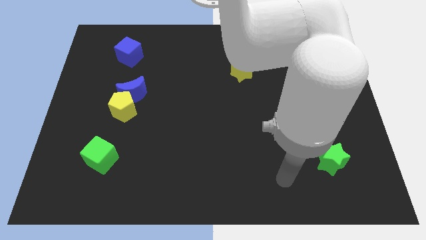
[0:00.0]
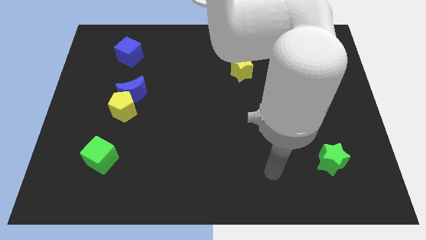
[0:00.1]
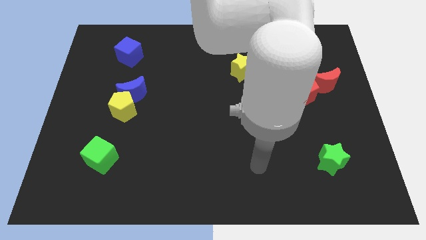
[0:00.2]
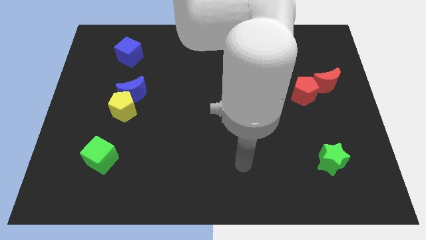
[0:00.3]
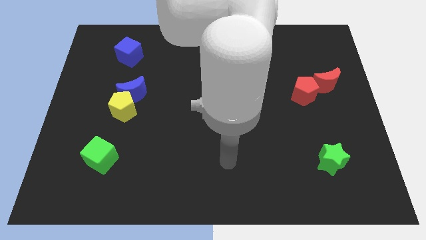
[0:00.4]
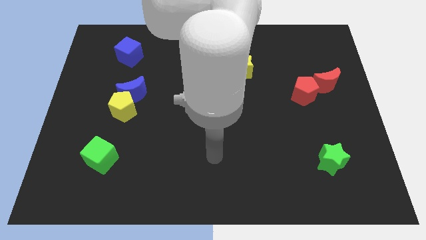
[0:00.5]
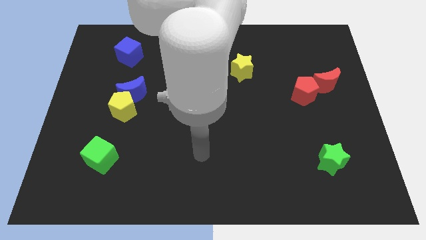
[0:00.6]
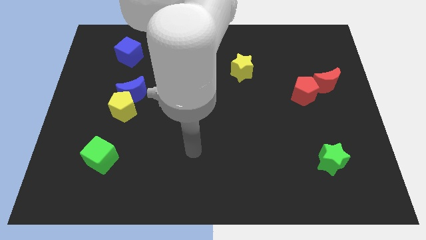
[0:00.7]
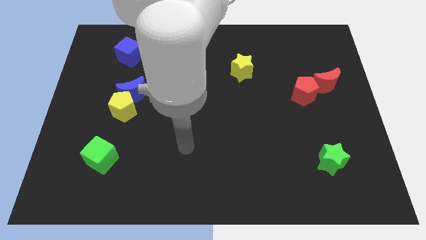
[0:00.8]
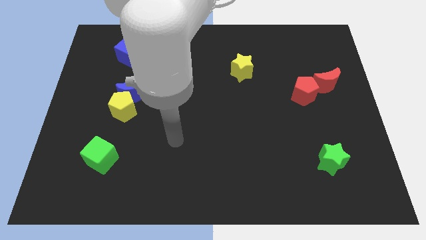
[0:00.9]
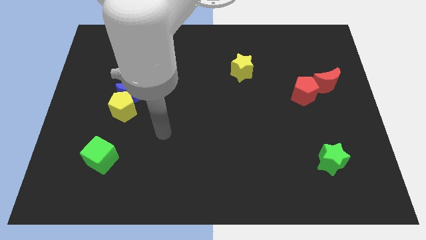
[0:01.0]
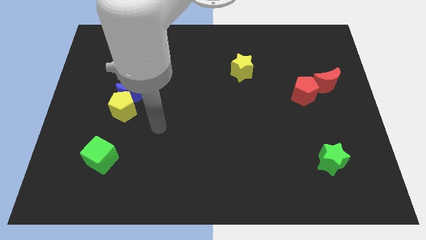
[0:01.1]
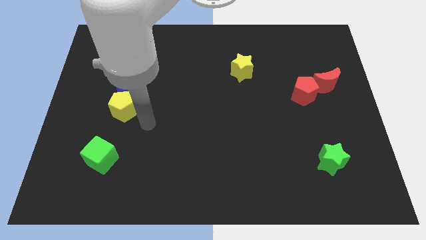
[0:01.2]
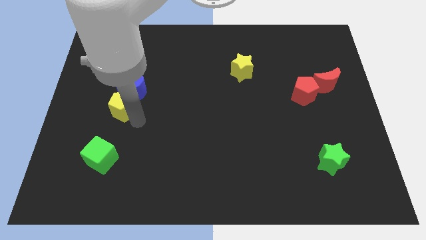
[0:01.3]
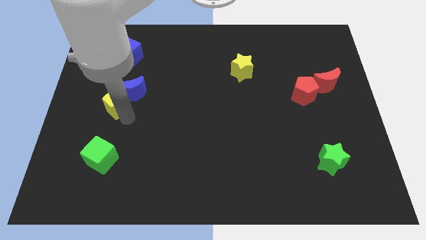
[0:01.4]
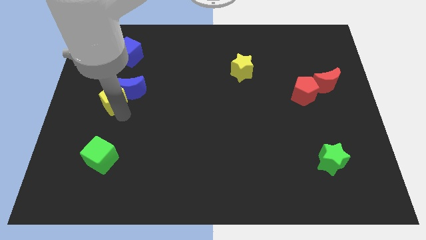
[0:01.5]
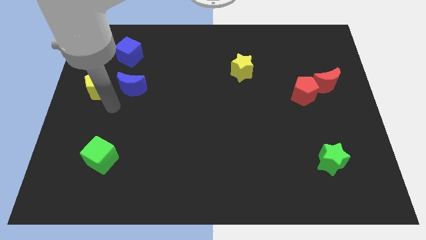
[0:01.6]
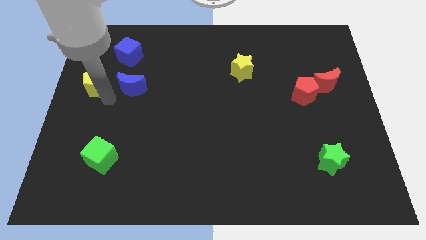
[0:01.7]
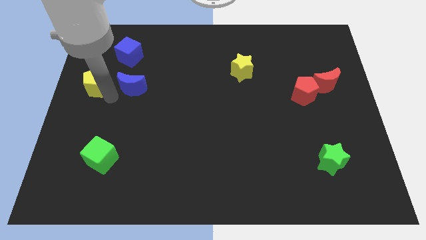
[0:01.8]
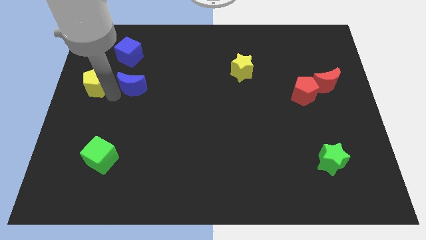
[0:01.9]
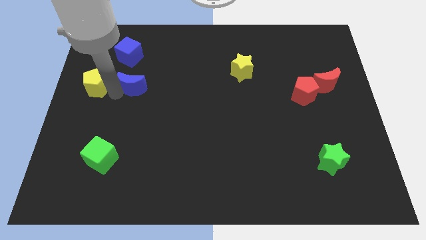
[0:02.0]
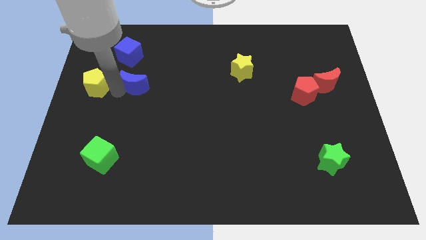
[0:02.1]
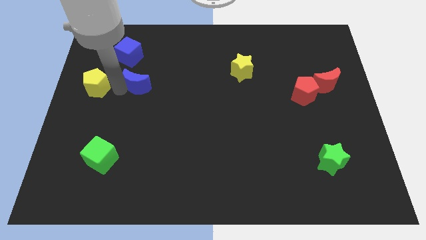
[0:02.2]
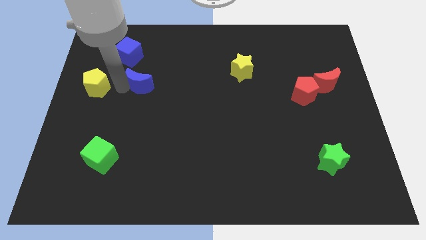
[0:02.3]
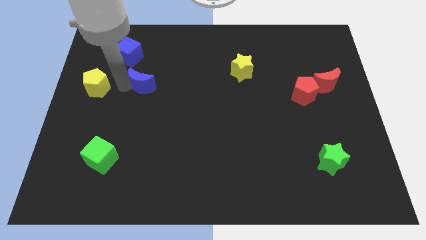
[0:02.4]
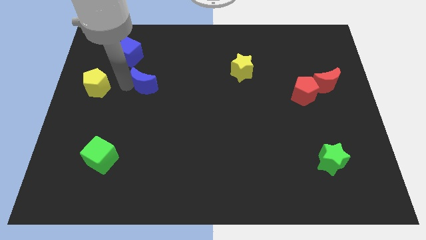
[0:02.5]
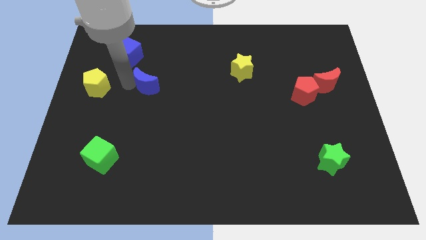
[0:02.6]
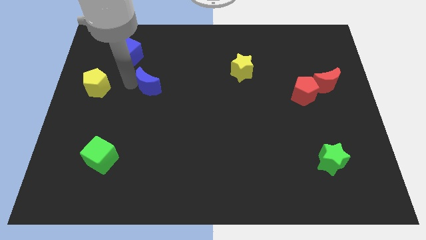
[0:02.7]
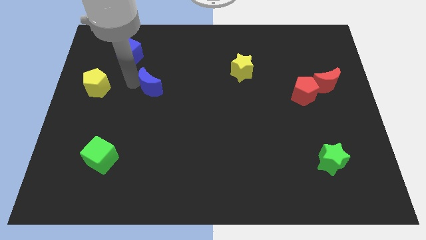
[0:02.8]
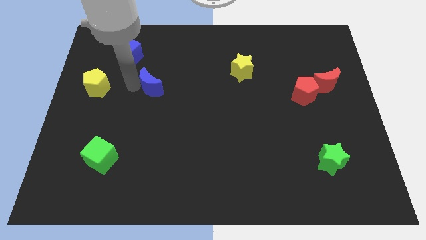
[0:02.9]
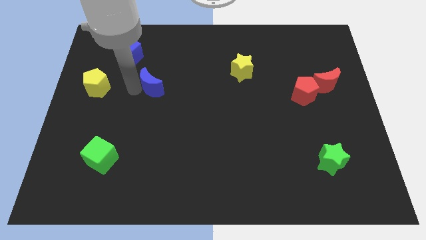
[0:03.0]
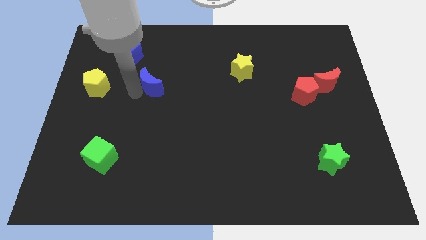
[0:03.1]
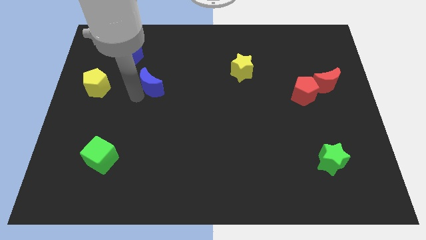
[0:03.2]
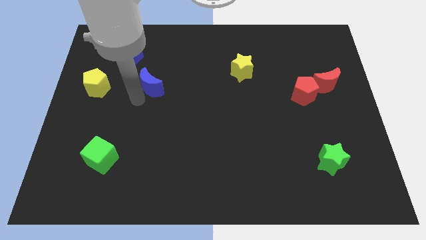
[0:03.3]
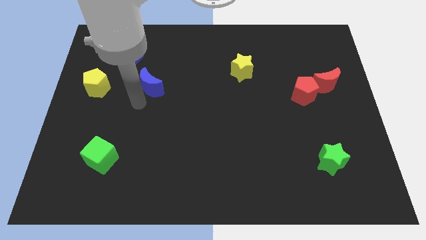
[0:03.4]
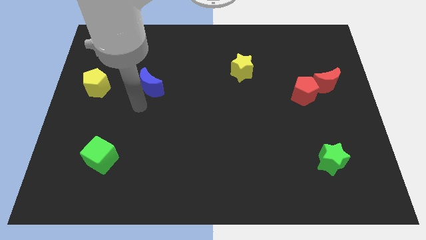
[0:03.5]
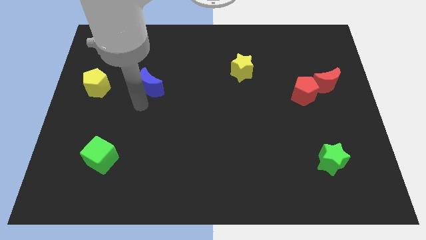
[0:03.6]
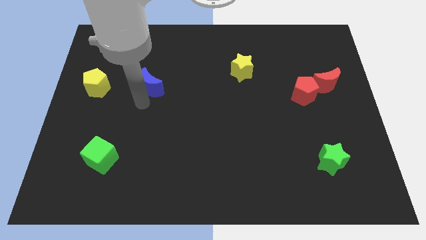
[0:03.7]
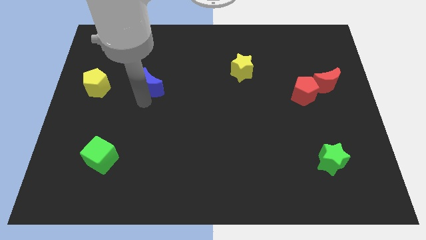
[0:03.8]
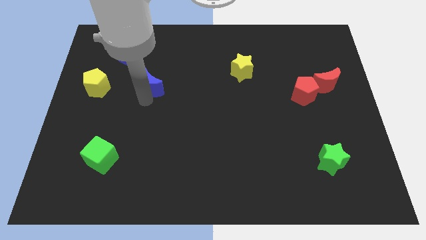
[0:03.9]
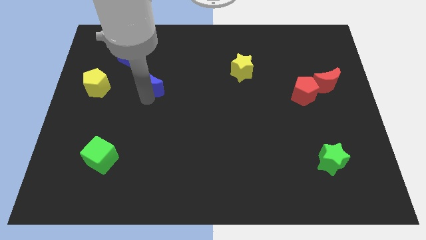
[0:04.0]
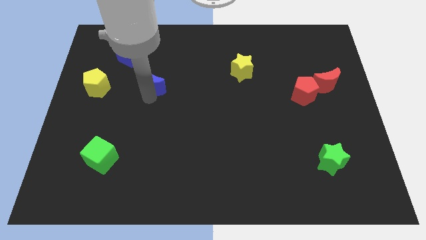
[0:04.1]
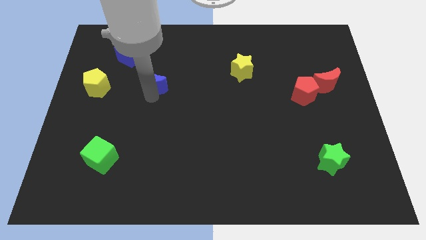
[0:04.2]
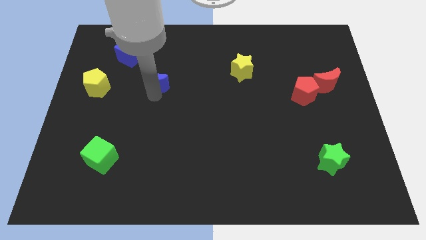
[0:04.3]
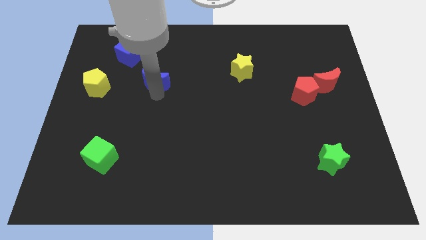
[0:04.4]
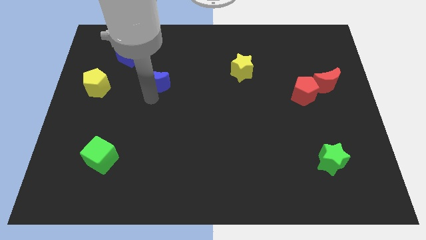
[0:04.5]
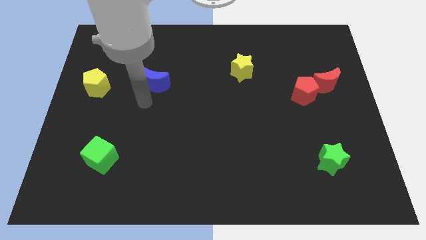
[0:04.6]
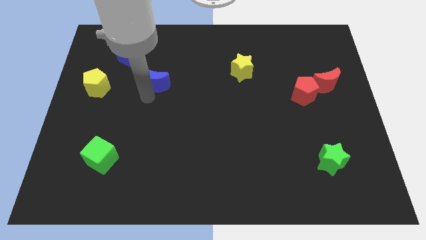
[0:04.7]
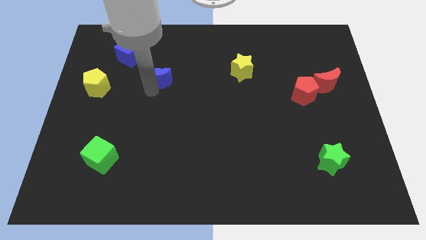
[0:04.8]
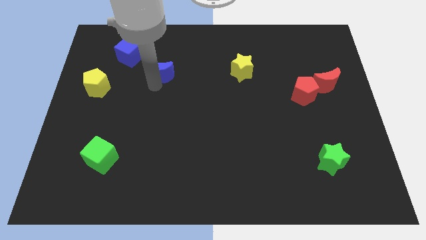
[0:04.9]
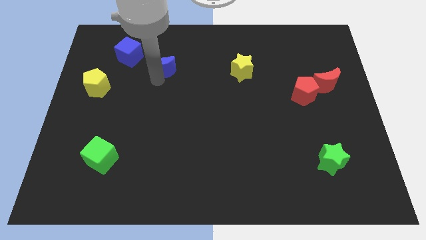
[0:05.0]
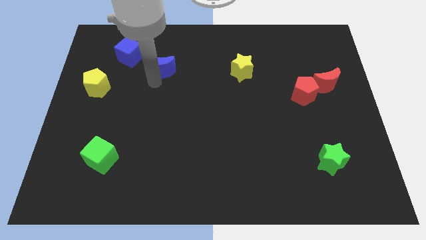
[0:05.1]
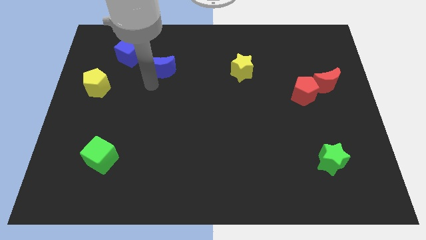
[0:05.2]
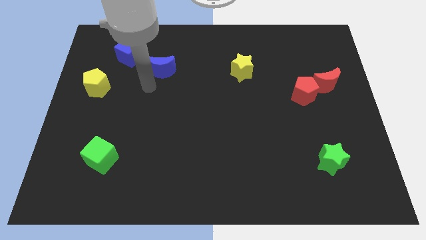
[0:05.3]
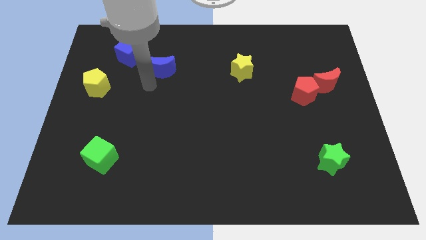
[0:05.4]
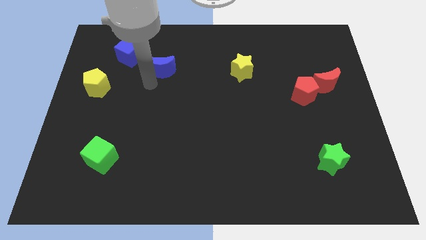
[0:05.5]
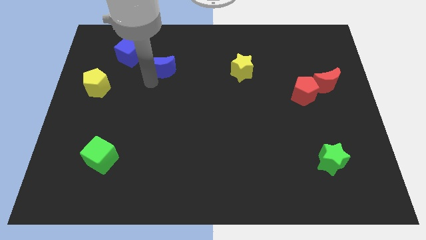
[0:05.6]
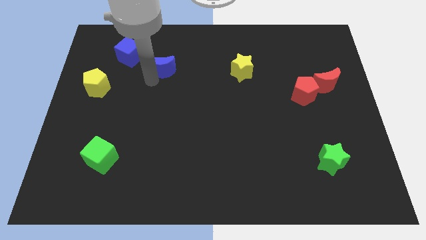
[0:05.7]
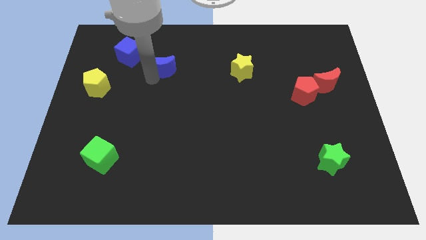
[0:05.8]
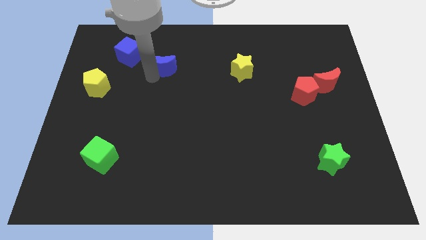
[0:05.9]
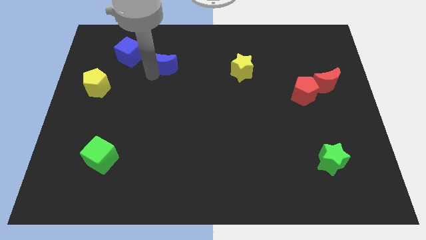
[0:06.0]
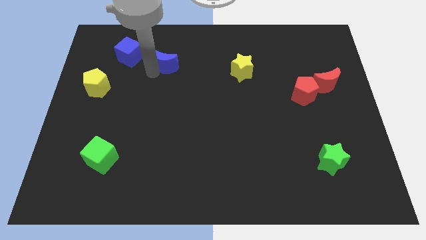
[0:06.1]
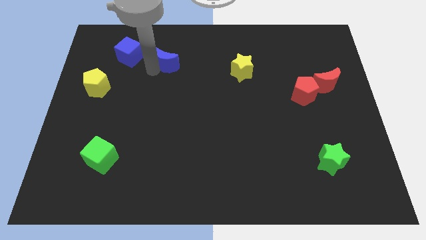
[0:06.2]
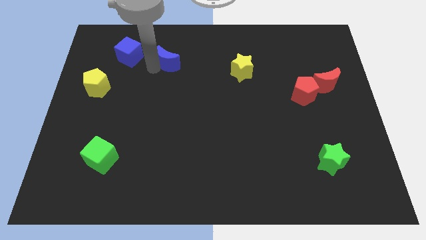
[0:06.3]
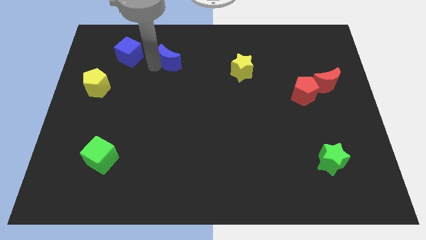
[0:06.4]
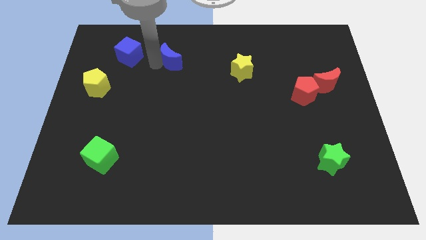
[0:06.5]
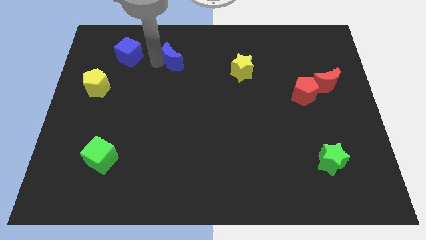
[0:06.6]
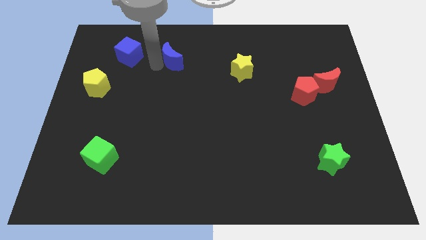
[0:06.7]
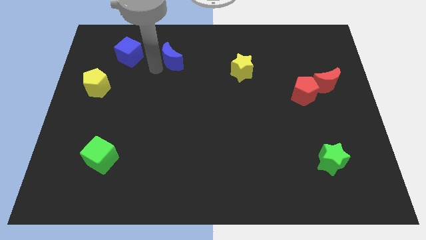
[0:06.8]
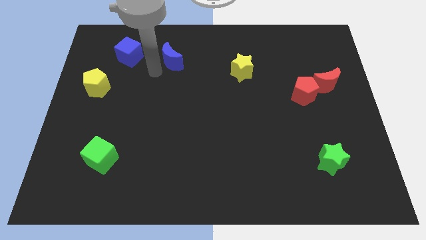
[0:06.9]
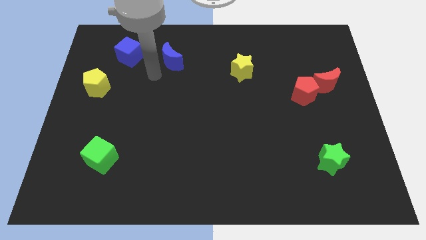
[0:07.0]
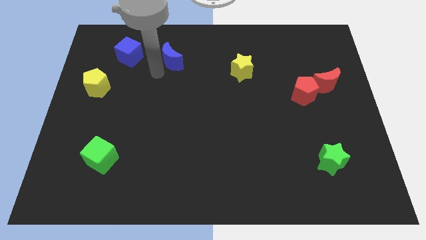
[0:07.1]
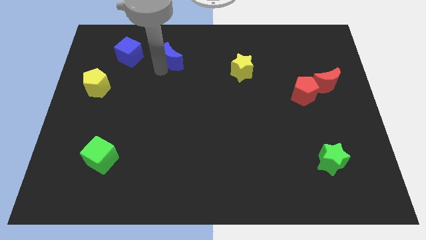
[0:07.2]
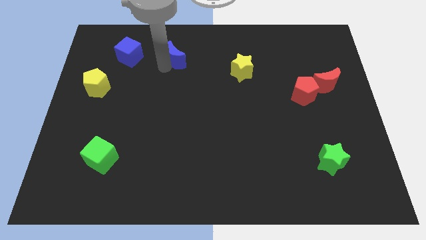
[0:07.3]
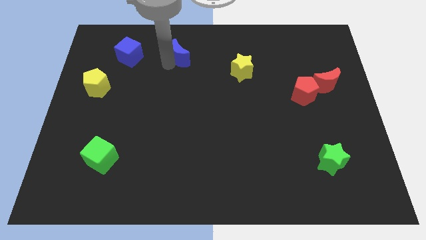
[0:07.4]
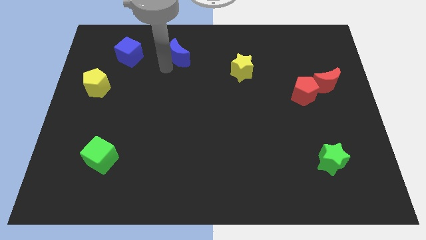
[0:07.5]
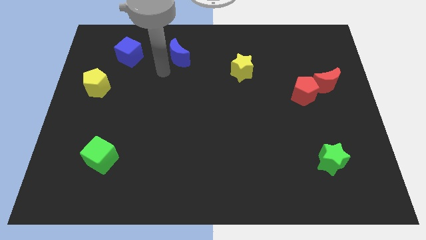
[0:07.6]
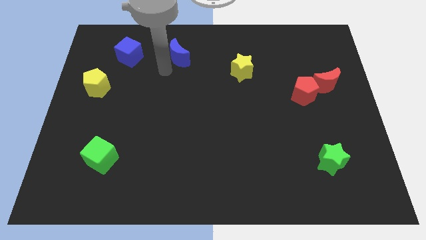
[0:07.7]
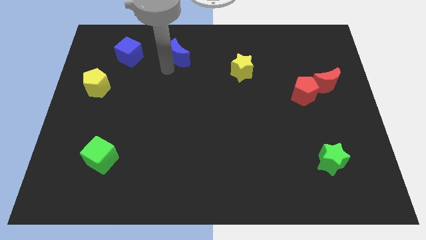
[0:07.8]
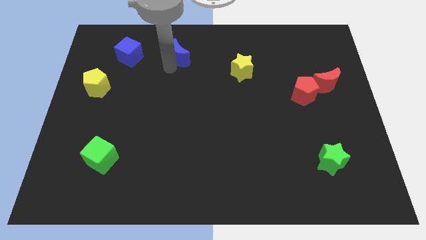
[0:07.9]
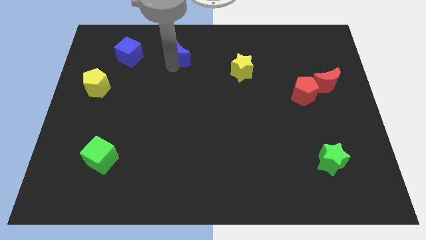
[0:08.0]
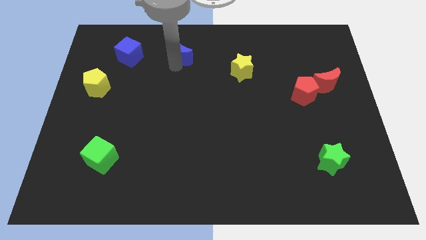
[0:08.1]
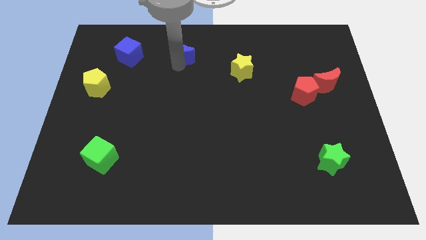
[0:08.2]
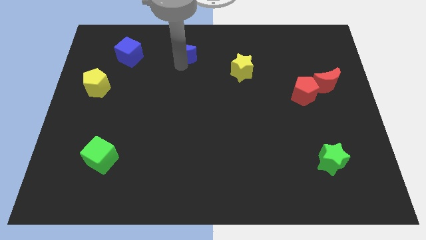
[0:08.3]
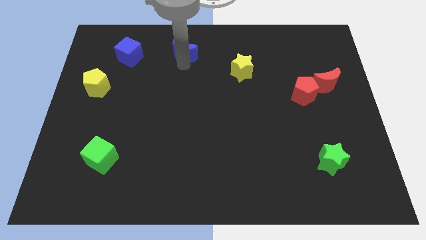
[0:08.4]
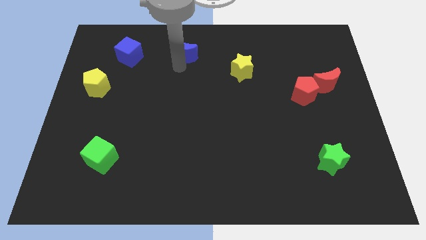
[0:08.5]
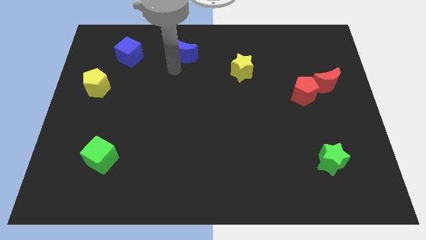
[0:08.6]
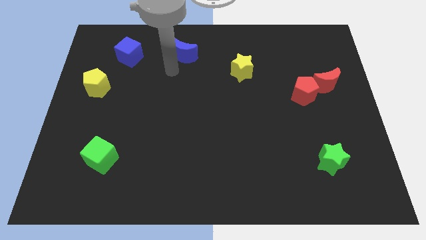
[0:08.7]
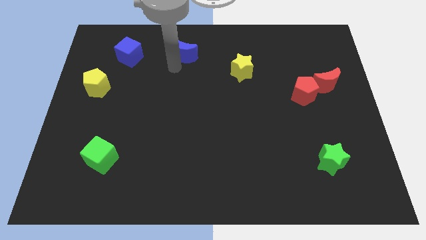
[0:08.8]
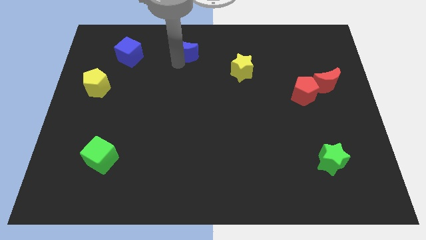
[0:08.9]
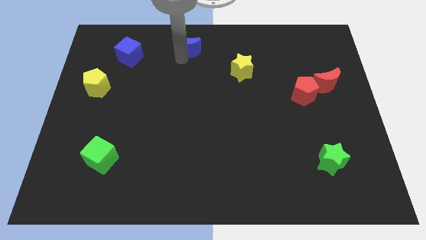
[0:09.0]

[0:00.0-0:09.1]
put the blue moon to the towards your base
